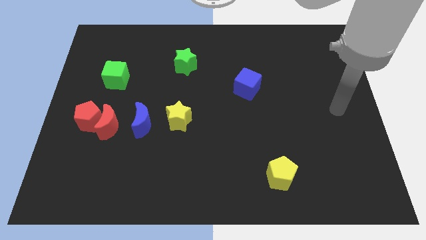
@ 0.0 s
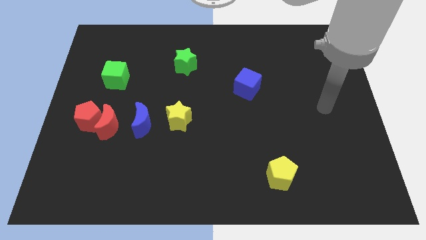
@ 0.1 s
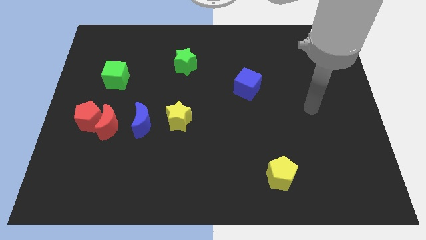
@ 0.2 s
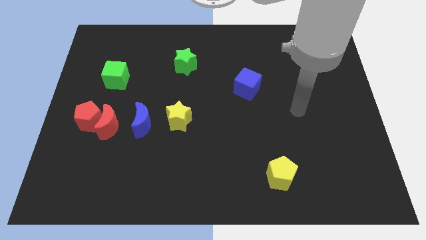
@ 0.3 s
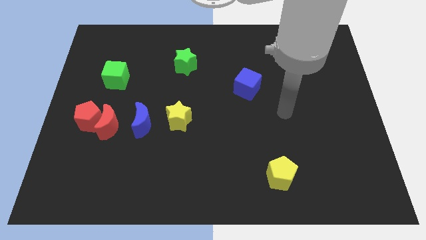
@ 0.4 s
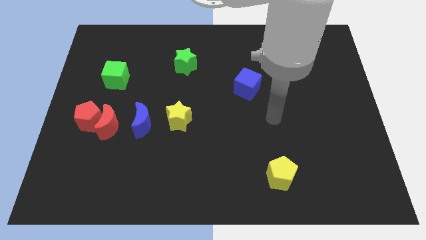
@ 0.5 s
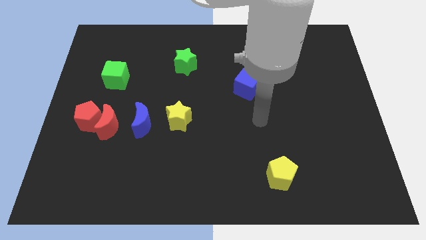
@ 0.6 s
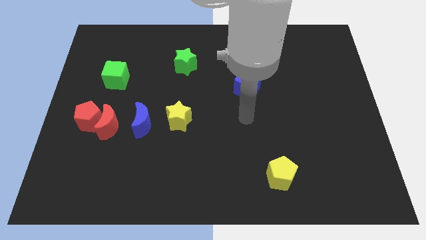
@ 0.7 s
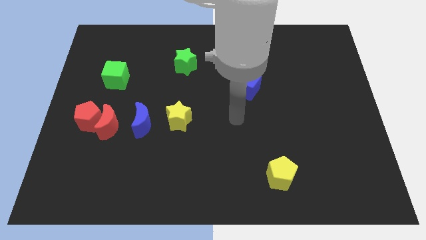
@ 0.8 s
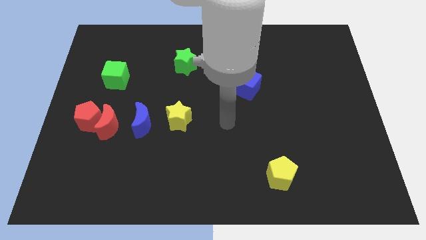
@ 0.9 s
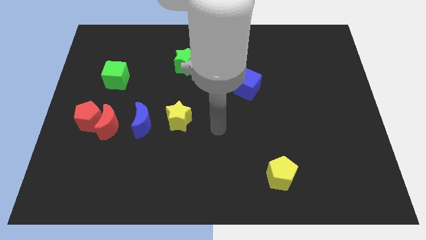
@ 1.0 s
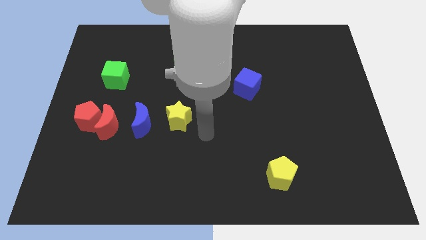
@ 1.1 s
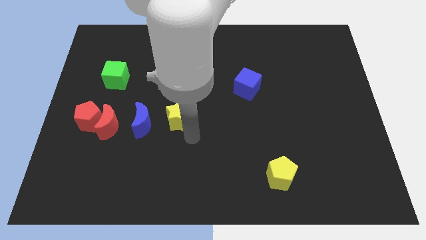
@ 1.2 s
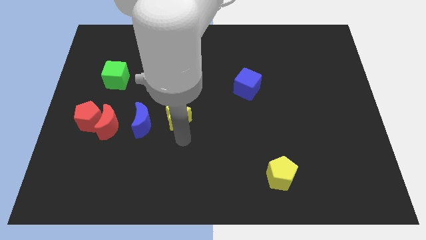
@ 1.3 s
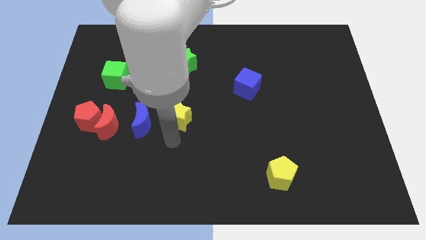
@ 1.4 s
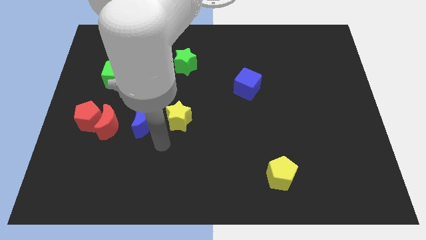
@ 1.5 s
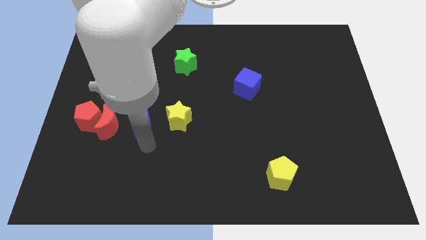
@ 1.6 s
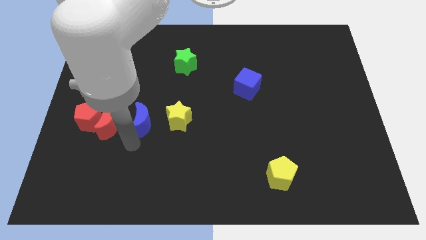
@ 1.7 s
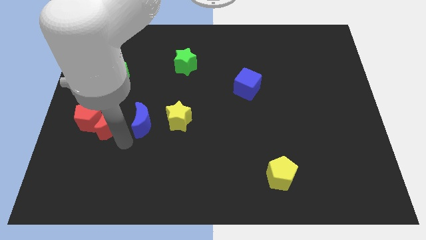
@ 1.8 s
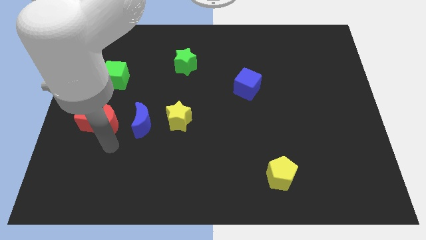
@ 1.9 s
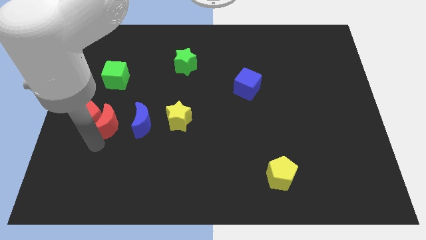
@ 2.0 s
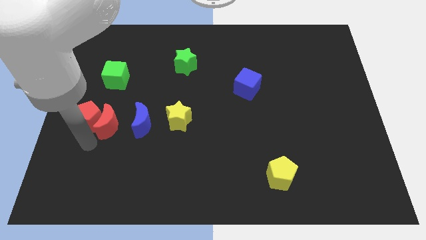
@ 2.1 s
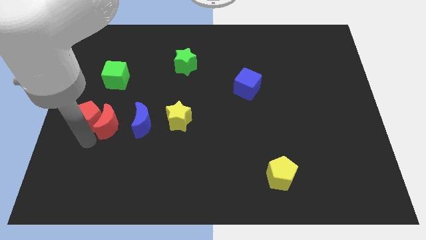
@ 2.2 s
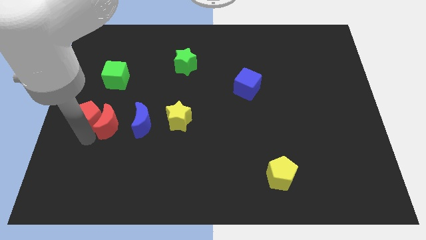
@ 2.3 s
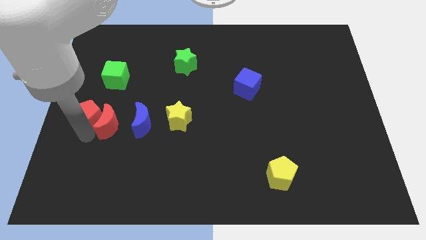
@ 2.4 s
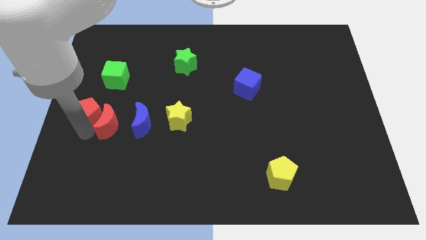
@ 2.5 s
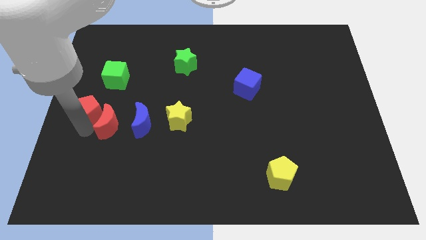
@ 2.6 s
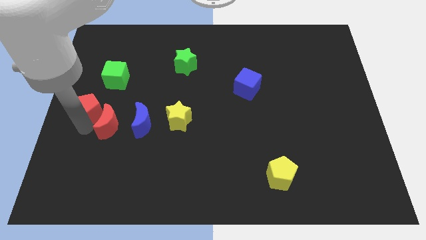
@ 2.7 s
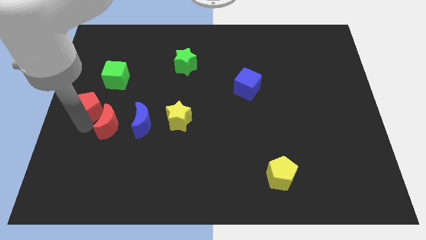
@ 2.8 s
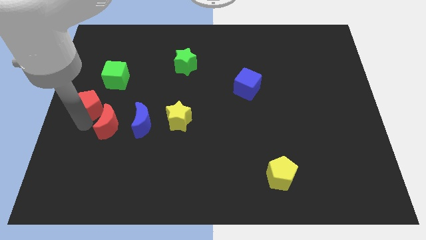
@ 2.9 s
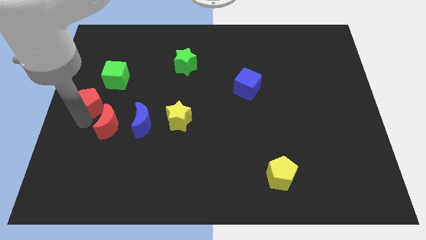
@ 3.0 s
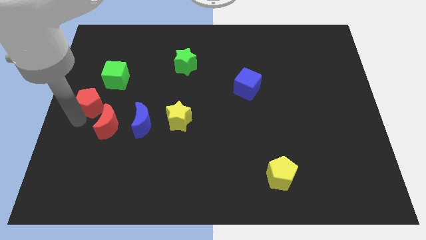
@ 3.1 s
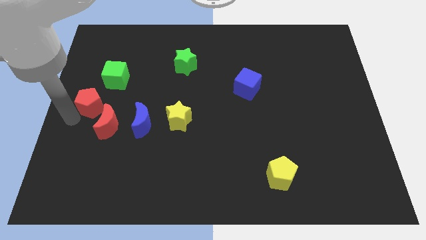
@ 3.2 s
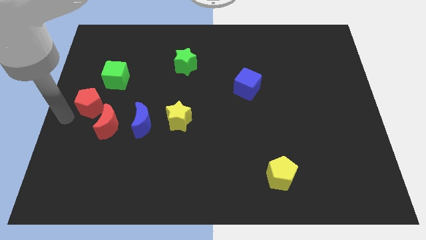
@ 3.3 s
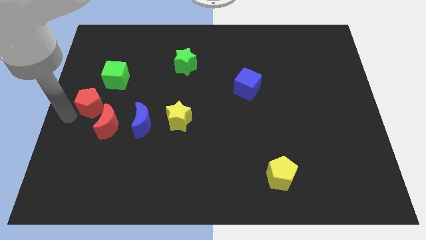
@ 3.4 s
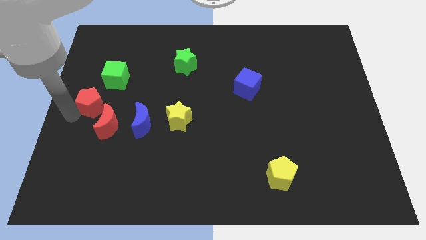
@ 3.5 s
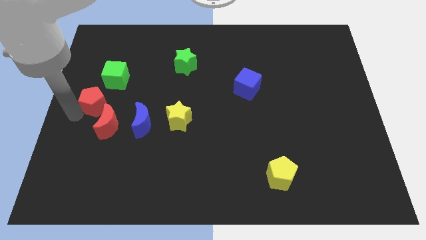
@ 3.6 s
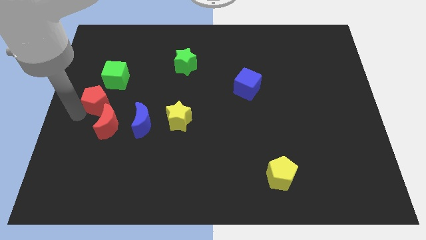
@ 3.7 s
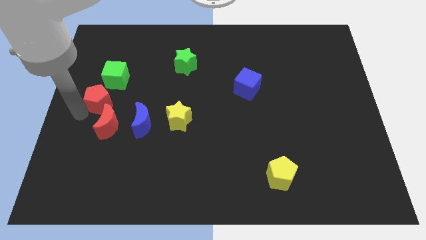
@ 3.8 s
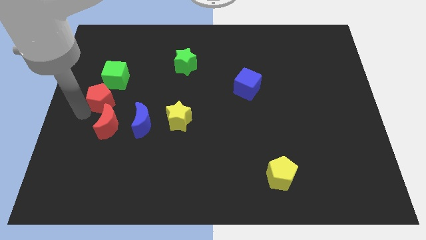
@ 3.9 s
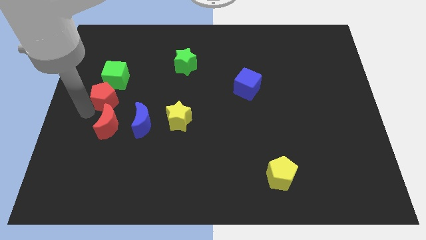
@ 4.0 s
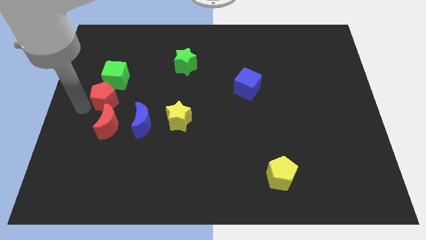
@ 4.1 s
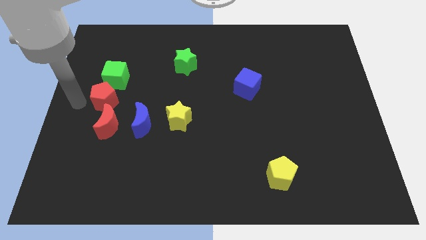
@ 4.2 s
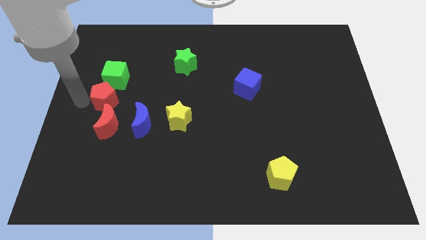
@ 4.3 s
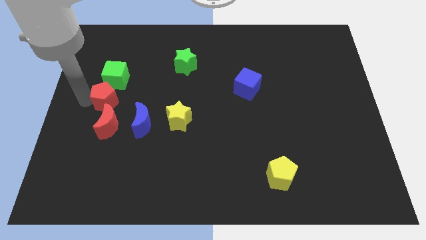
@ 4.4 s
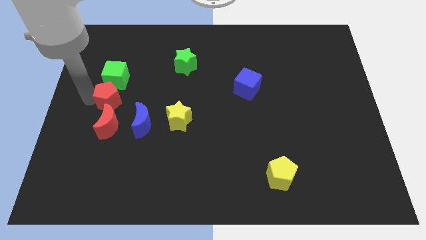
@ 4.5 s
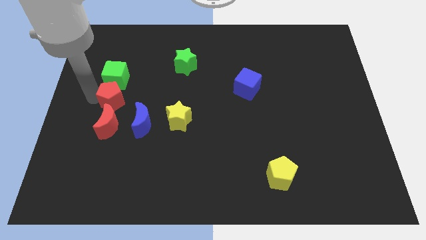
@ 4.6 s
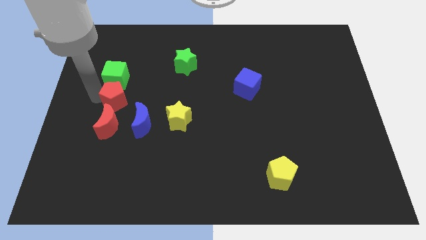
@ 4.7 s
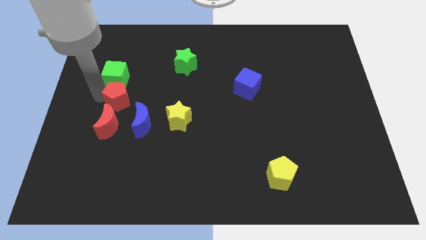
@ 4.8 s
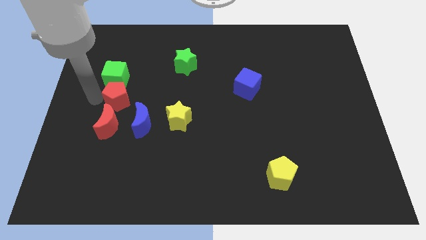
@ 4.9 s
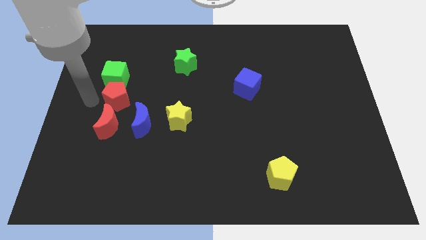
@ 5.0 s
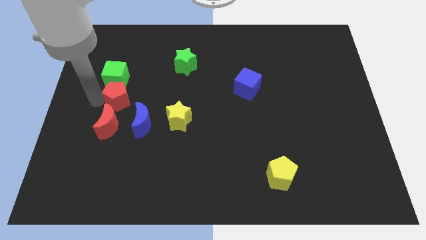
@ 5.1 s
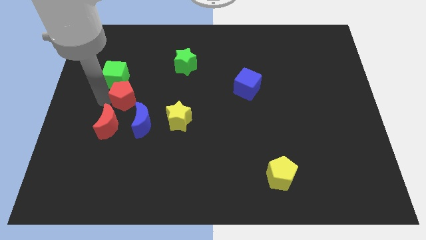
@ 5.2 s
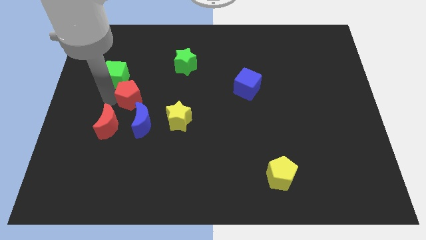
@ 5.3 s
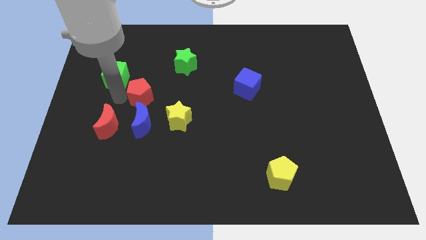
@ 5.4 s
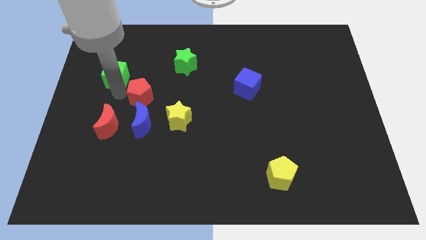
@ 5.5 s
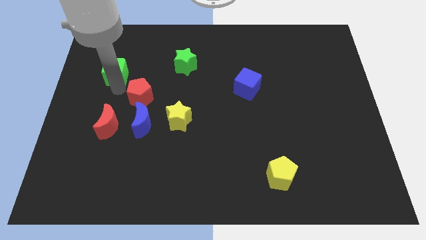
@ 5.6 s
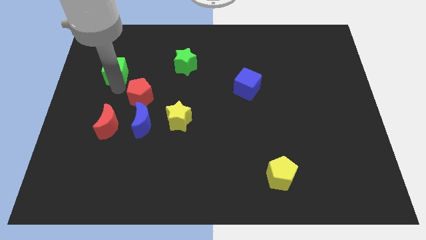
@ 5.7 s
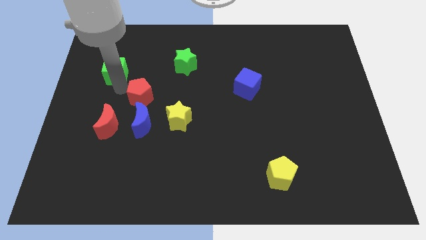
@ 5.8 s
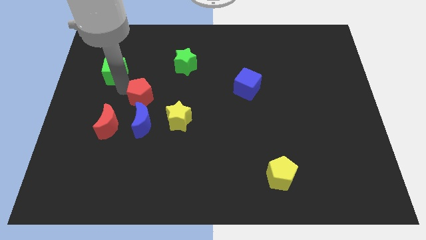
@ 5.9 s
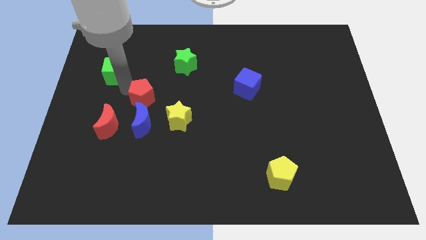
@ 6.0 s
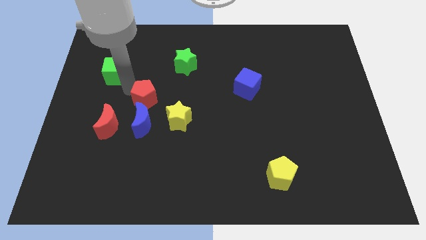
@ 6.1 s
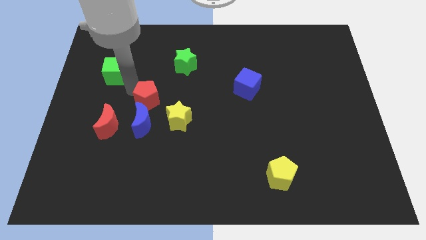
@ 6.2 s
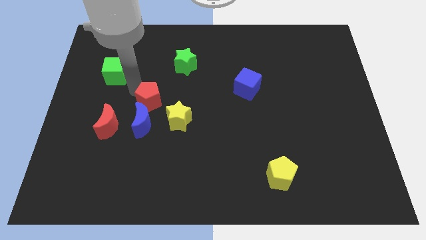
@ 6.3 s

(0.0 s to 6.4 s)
slide the red pentagon to the top right side of the blue moon
